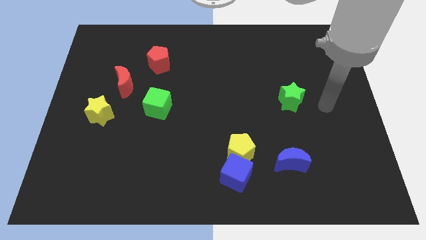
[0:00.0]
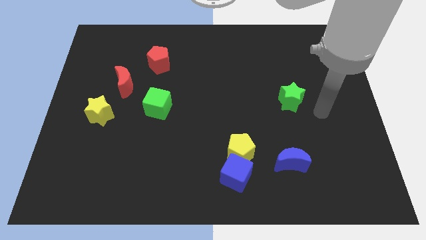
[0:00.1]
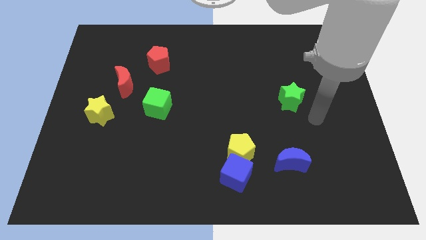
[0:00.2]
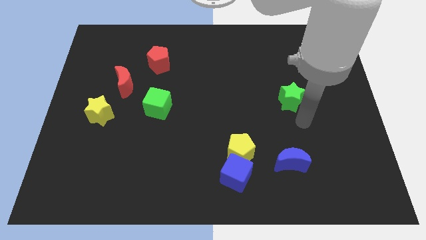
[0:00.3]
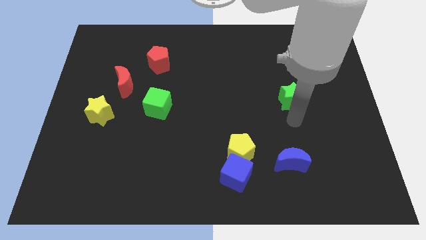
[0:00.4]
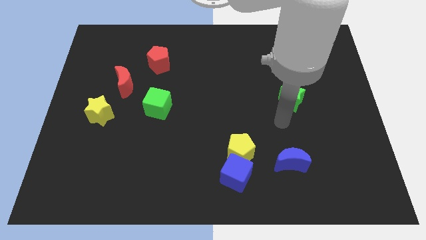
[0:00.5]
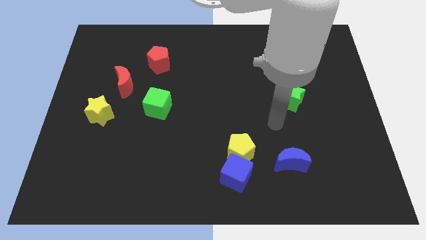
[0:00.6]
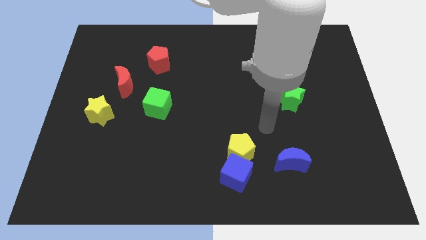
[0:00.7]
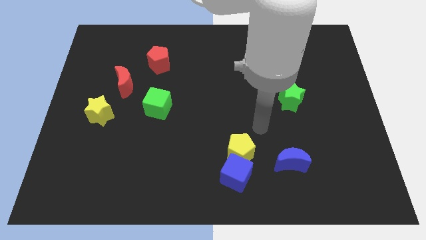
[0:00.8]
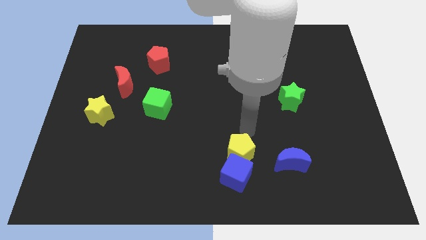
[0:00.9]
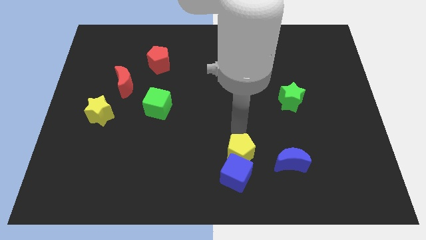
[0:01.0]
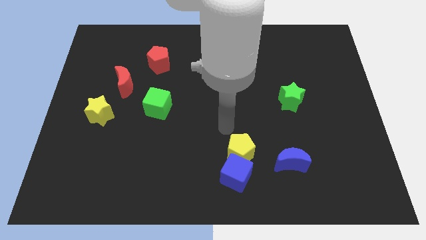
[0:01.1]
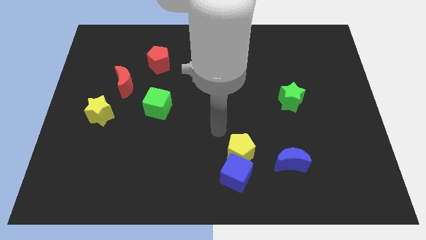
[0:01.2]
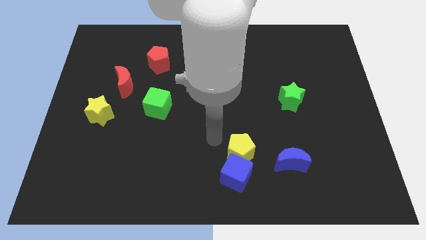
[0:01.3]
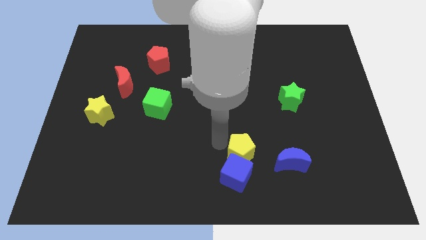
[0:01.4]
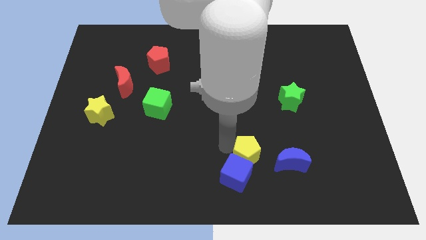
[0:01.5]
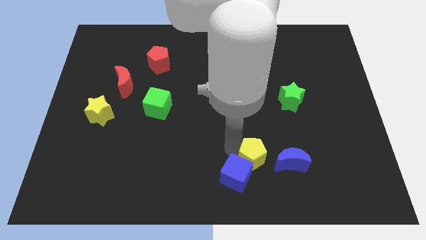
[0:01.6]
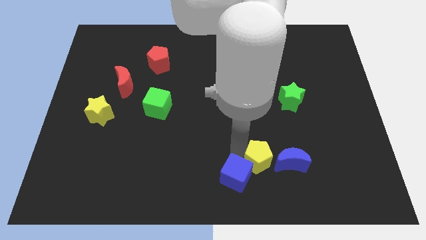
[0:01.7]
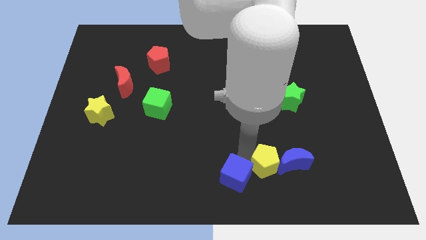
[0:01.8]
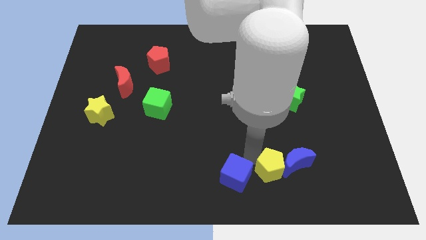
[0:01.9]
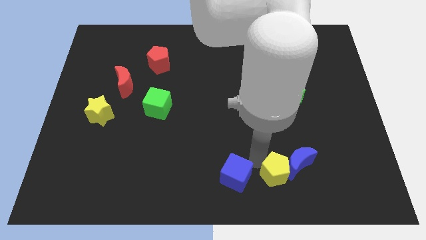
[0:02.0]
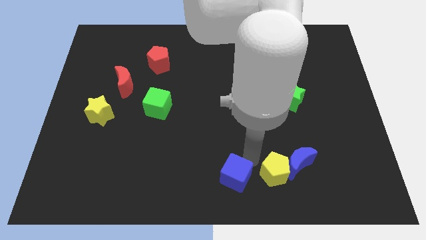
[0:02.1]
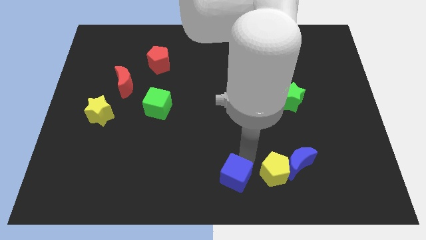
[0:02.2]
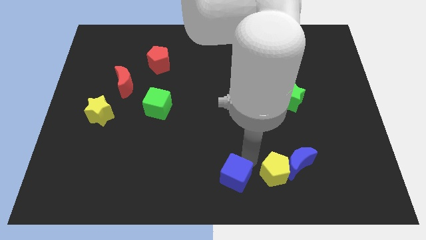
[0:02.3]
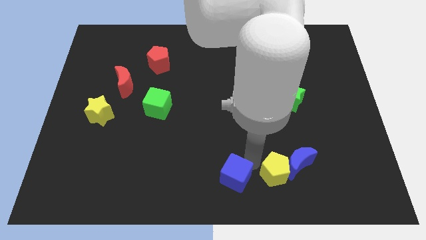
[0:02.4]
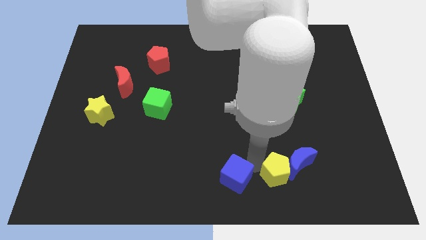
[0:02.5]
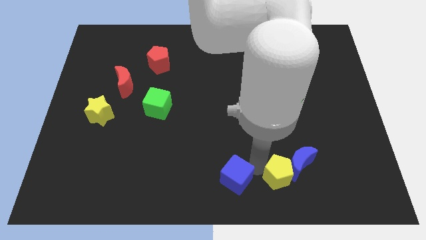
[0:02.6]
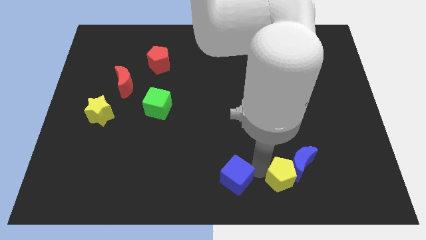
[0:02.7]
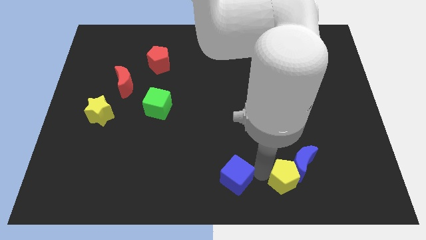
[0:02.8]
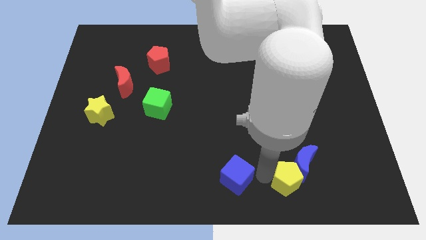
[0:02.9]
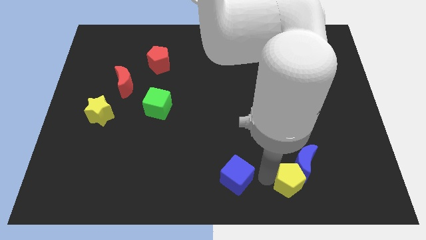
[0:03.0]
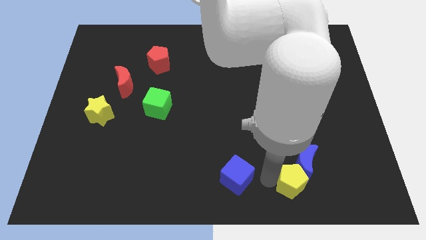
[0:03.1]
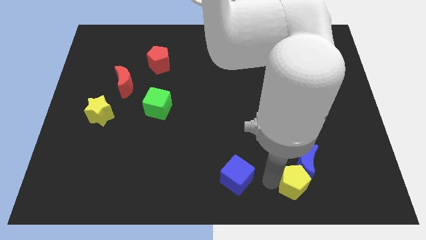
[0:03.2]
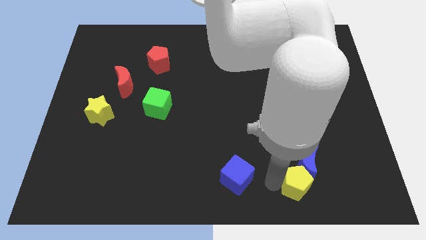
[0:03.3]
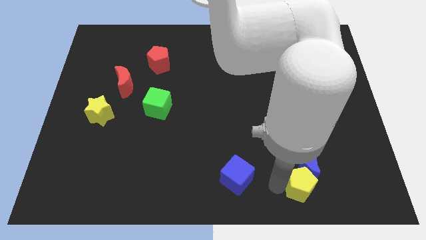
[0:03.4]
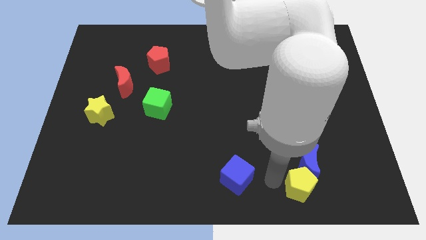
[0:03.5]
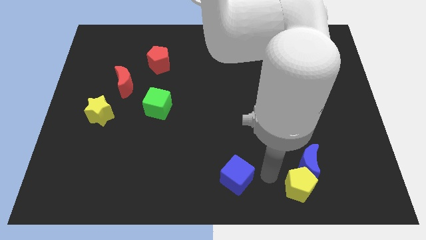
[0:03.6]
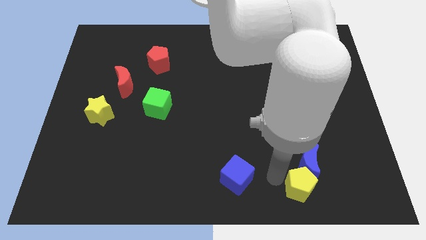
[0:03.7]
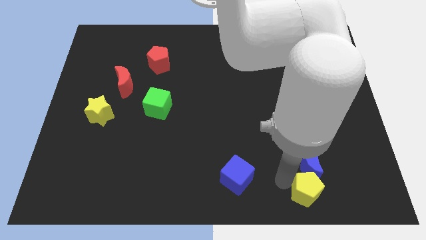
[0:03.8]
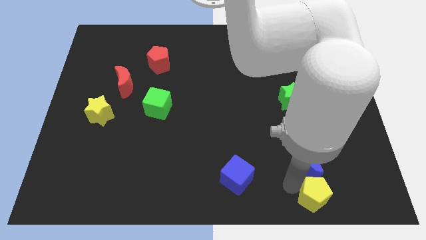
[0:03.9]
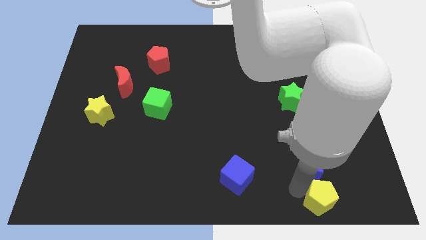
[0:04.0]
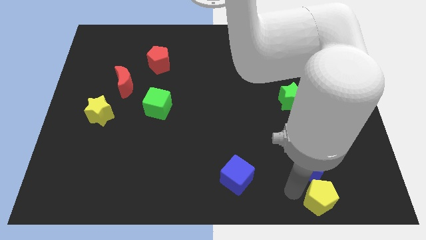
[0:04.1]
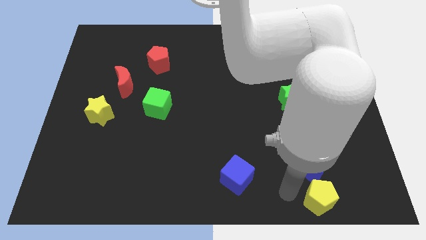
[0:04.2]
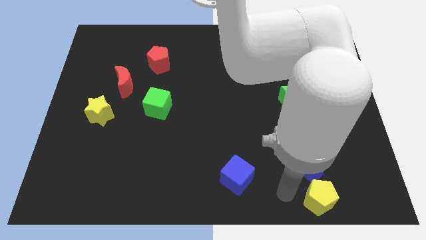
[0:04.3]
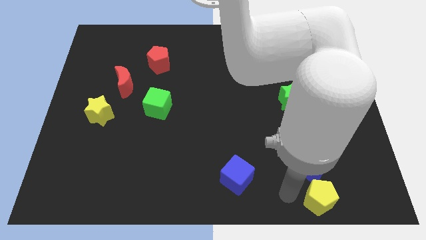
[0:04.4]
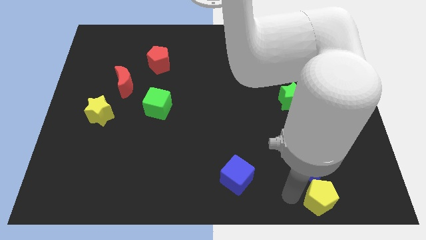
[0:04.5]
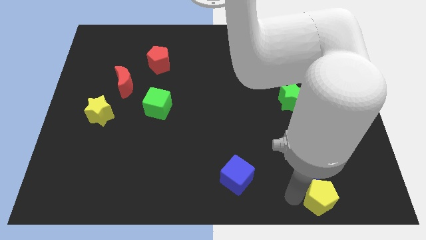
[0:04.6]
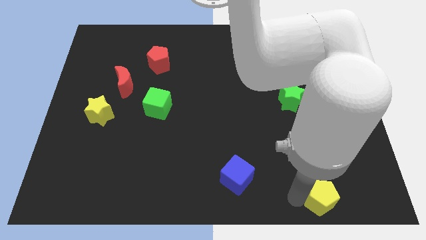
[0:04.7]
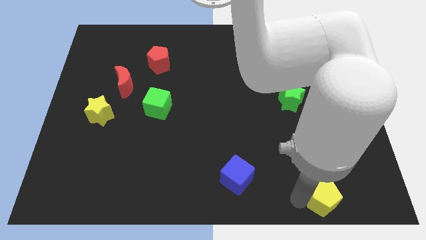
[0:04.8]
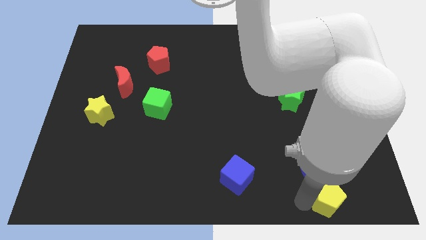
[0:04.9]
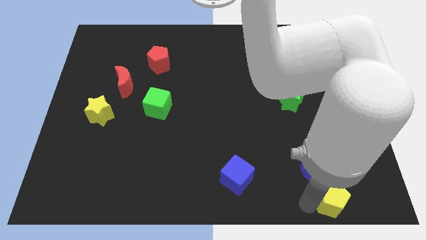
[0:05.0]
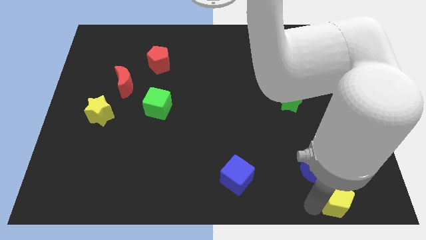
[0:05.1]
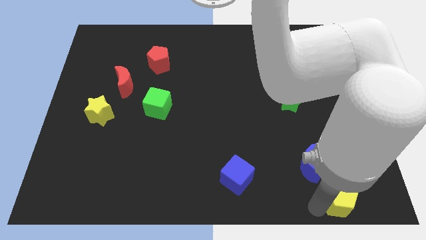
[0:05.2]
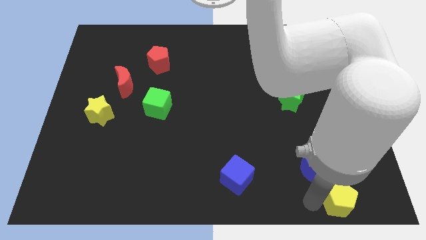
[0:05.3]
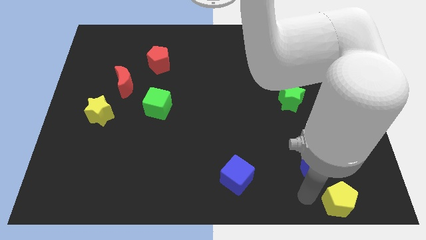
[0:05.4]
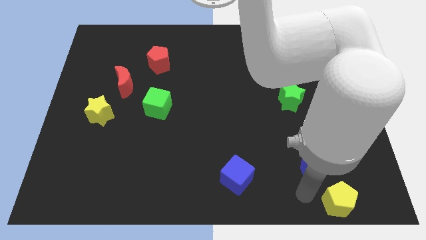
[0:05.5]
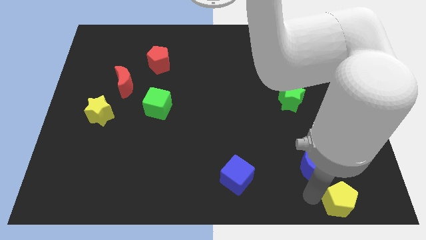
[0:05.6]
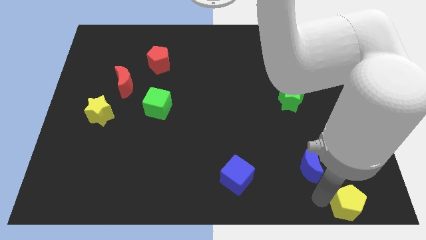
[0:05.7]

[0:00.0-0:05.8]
slide the yellow pentagon to the lower right corner
